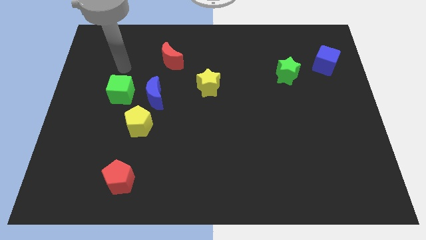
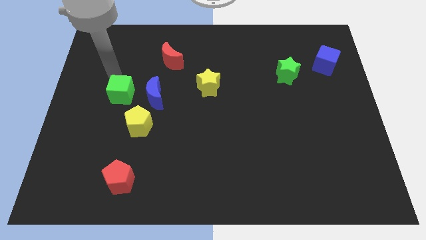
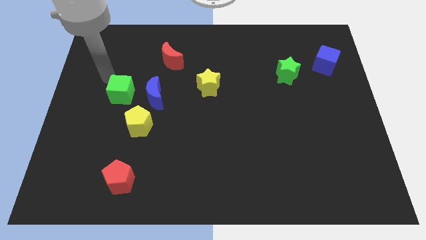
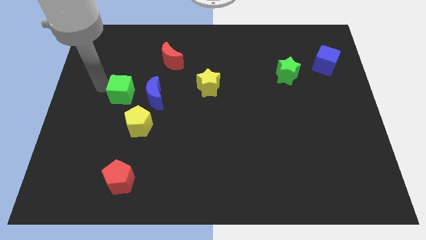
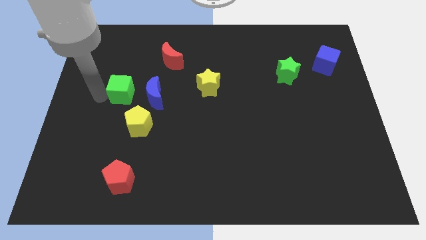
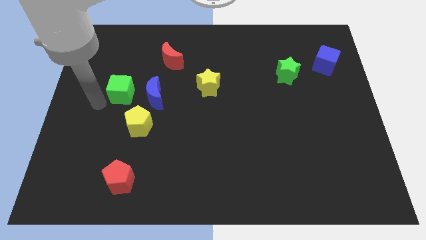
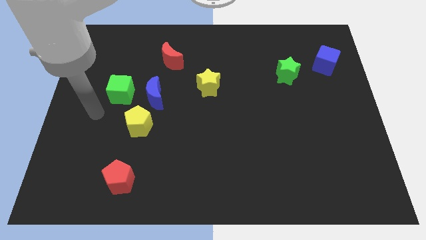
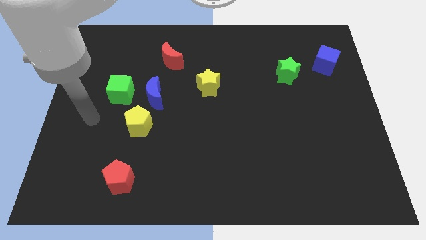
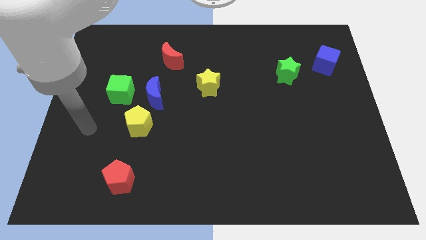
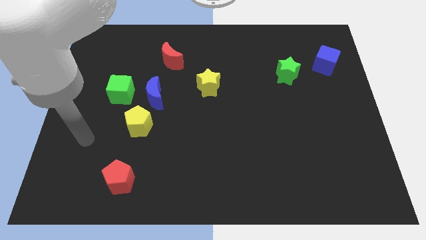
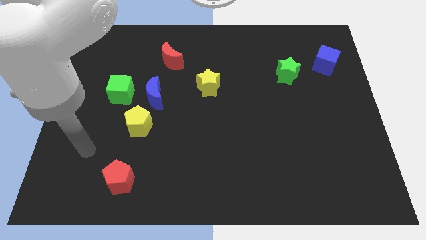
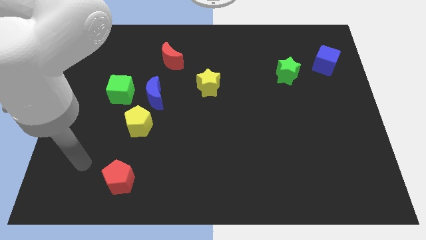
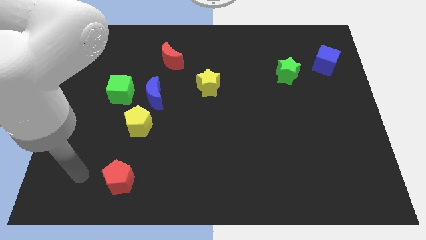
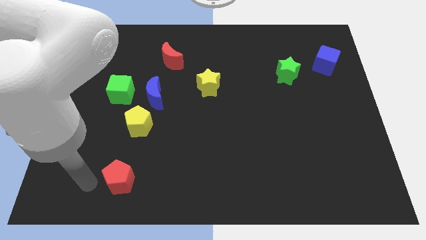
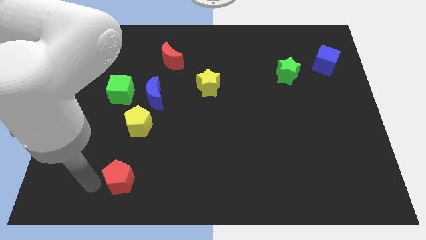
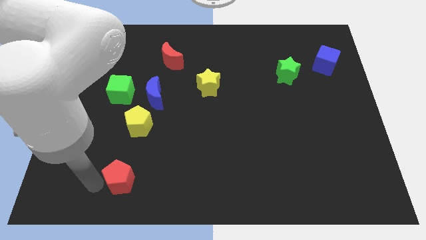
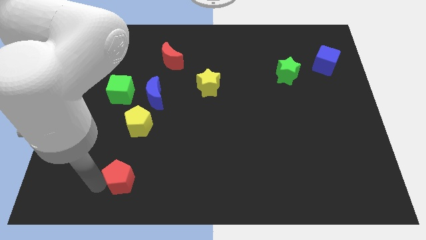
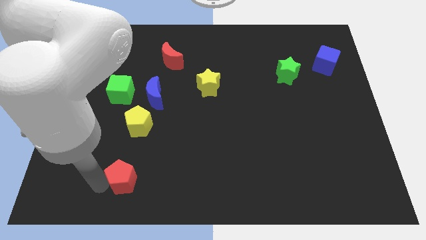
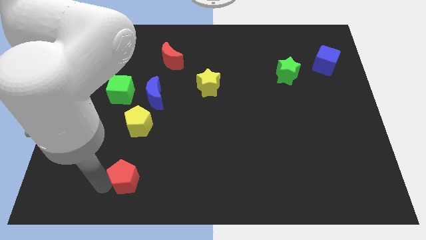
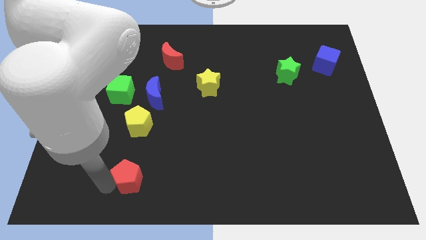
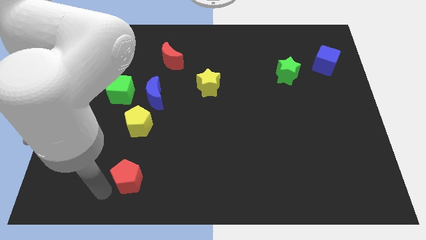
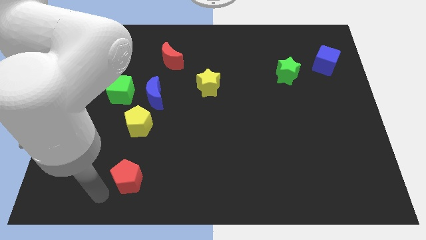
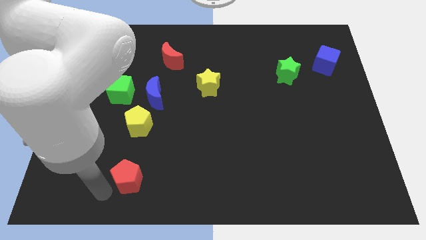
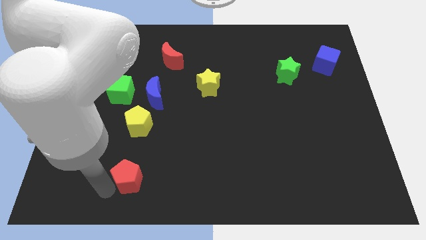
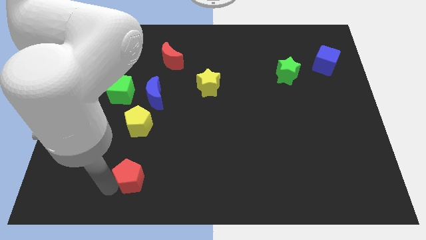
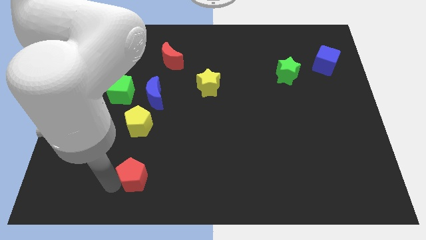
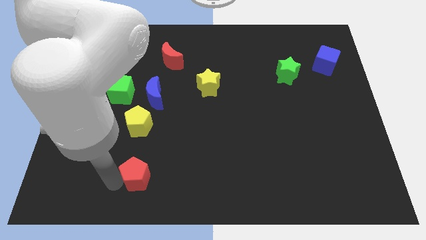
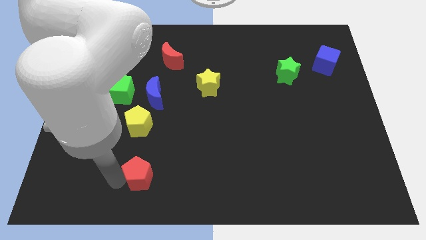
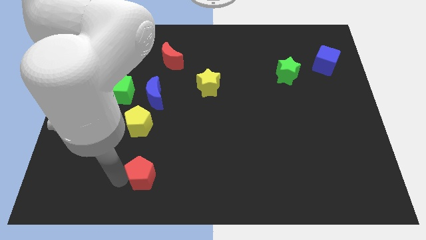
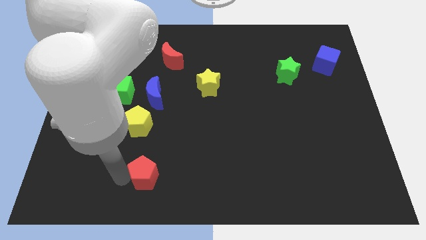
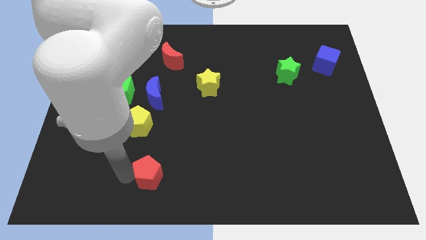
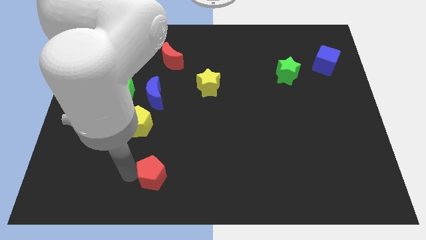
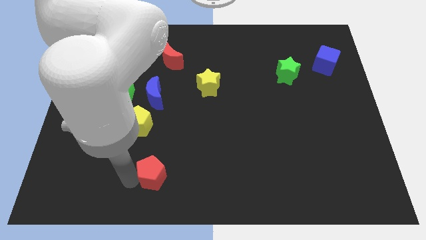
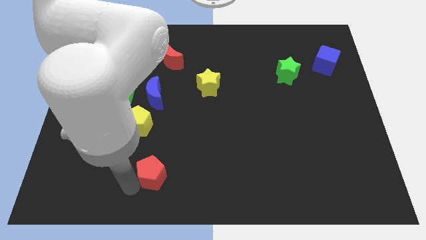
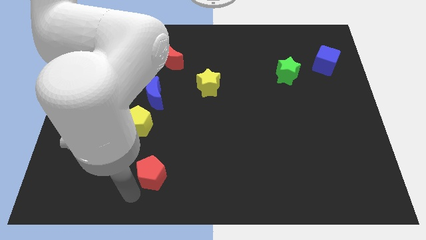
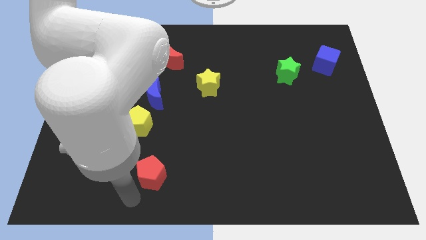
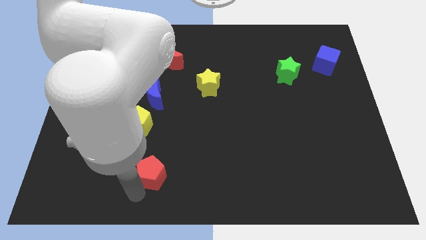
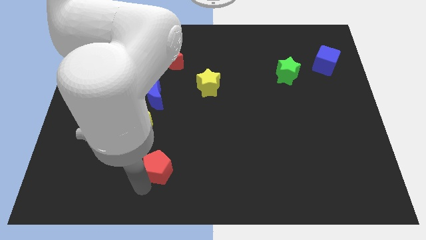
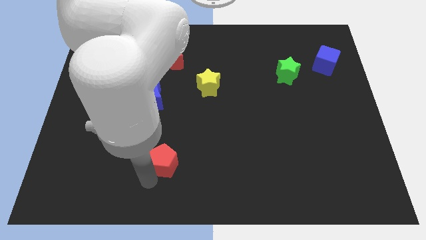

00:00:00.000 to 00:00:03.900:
move the red pentagon a little up and right

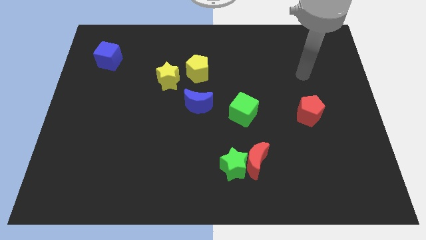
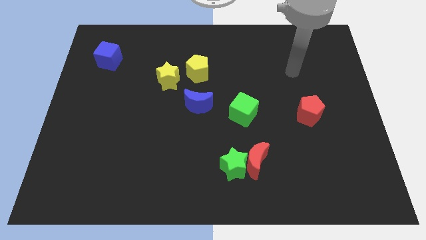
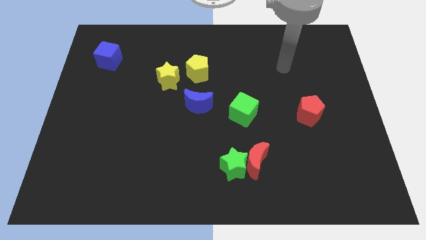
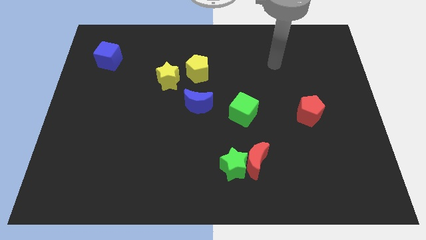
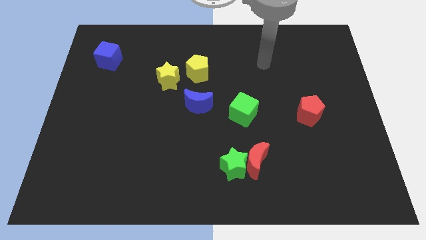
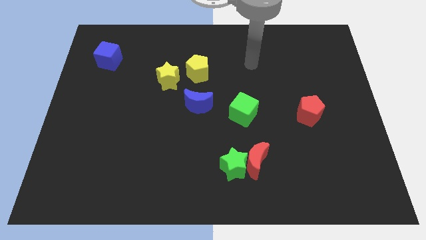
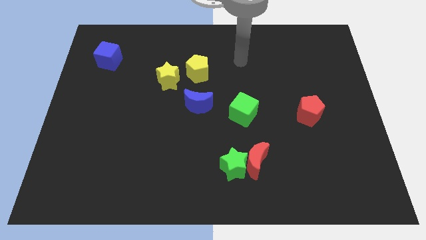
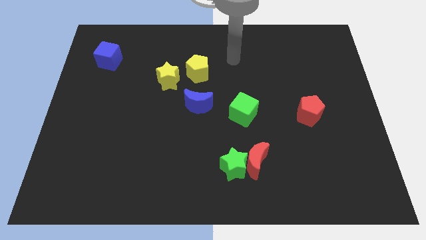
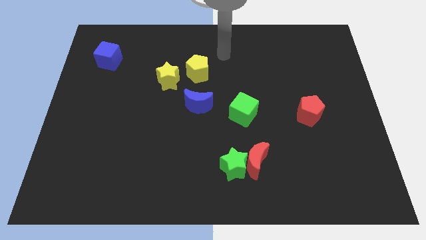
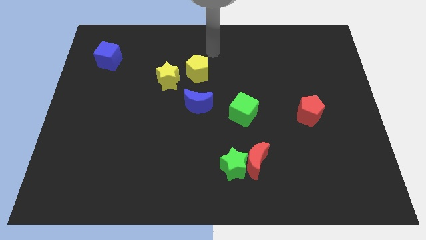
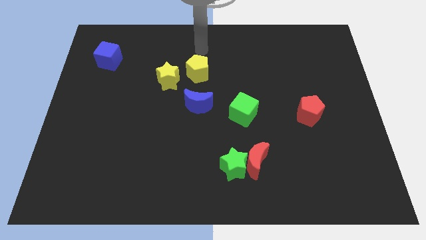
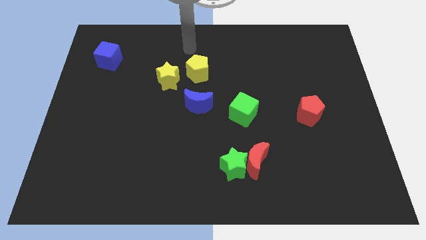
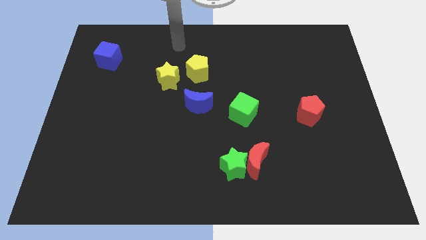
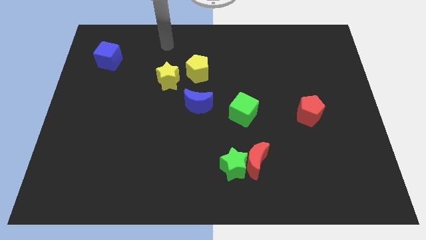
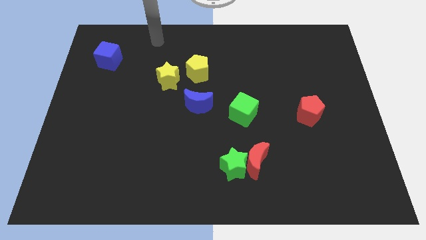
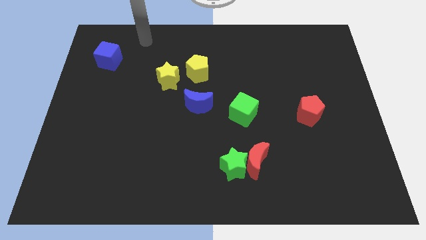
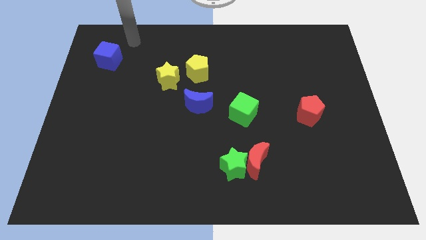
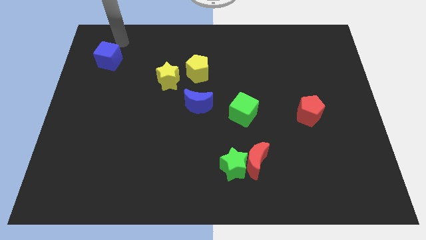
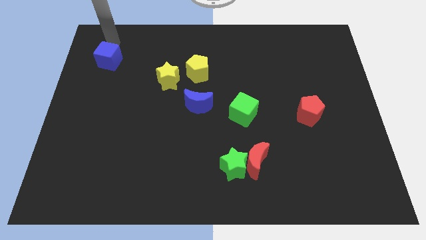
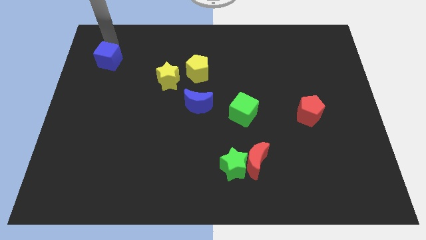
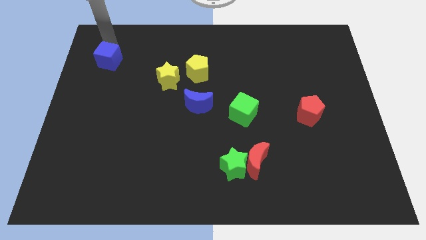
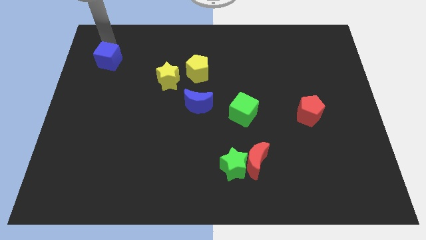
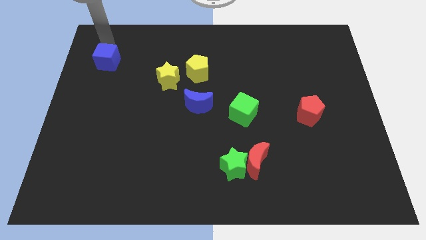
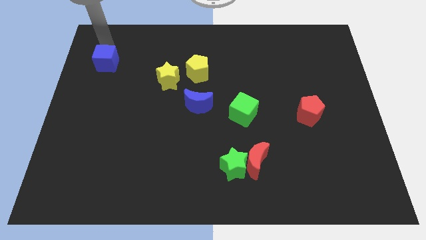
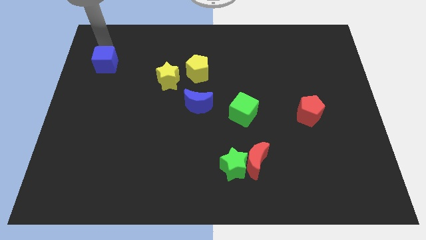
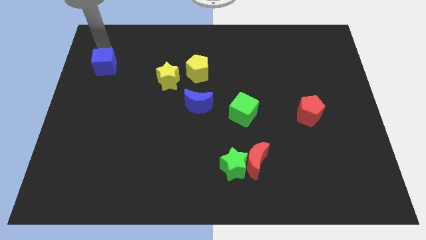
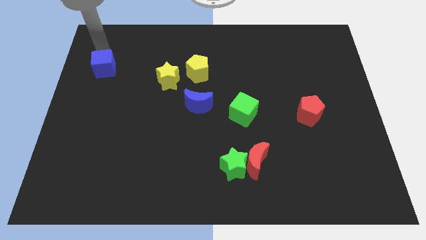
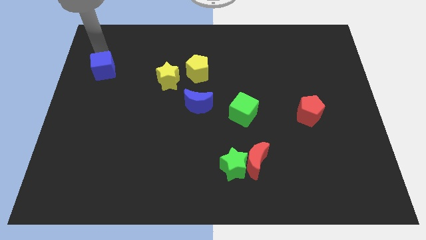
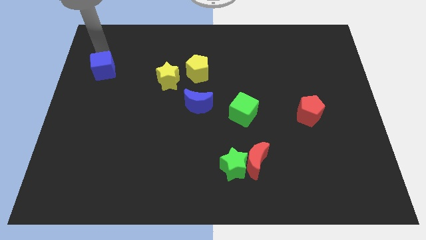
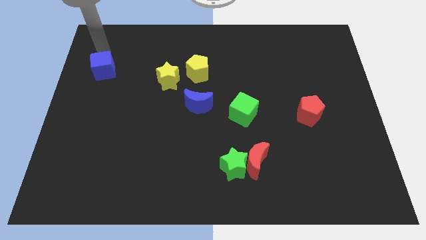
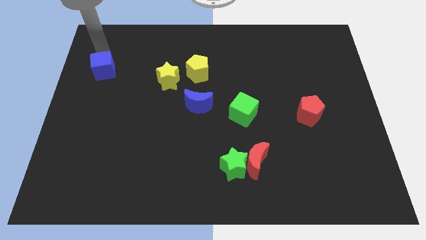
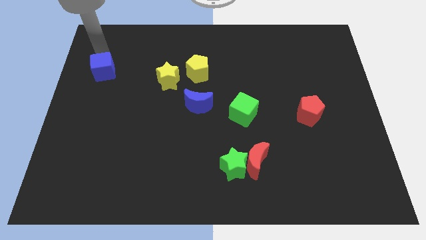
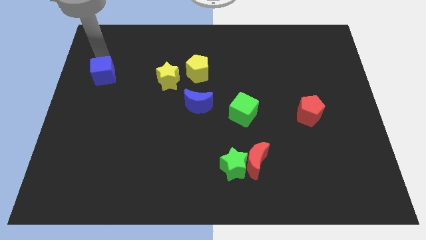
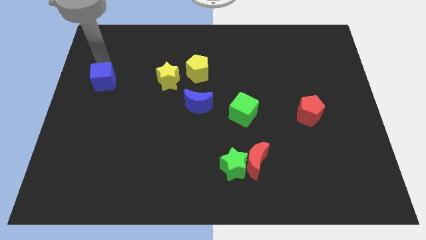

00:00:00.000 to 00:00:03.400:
push the blue cube downwards slightly

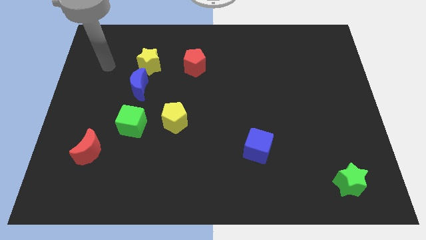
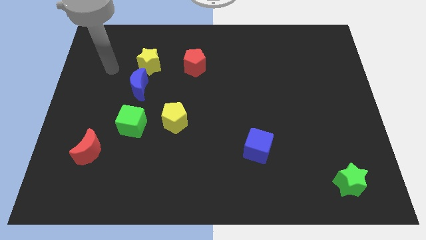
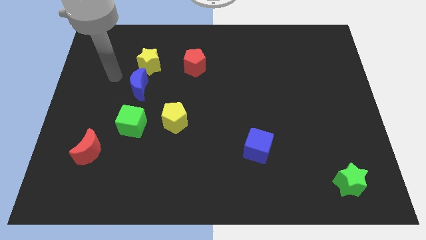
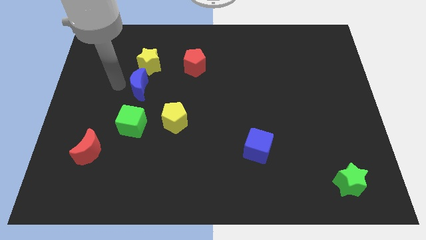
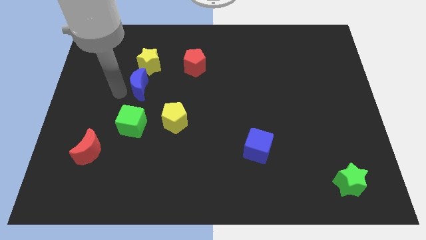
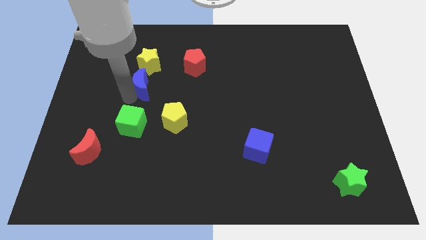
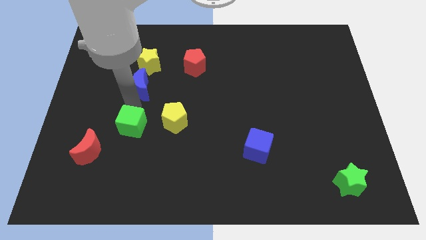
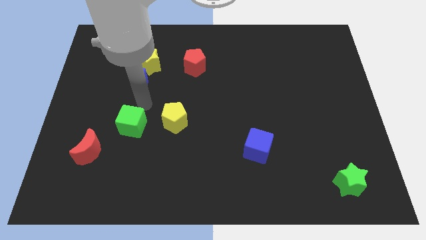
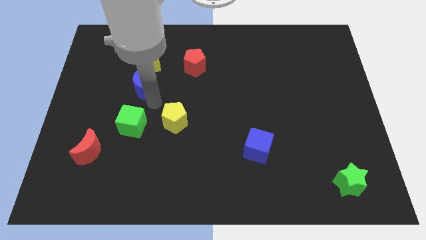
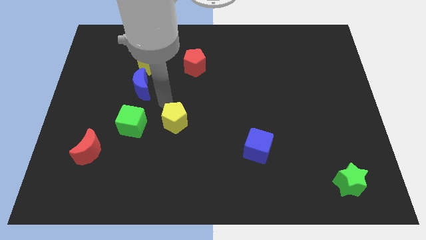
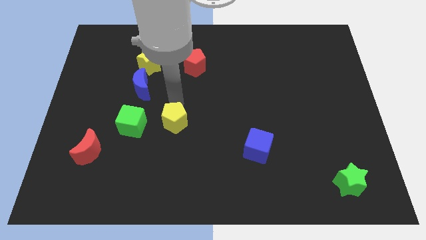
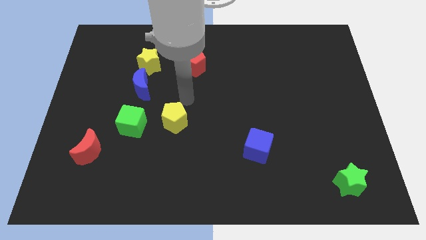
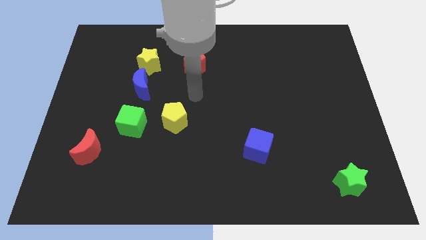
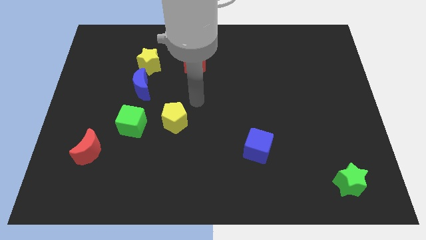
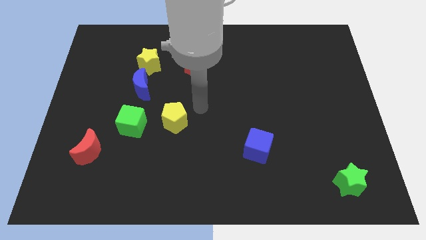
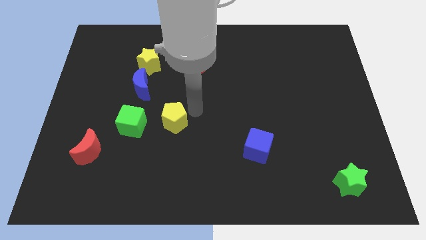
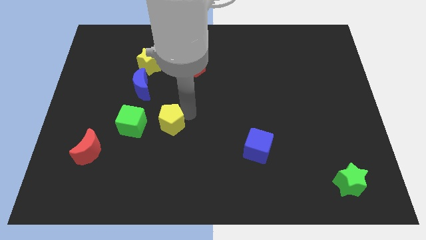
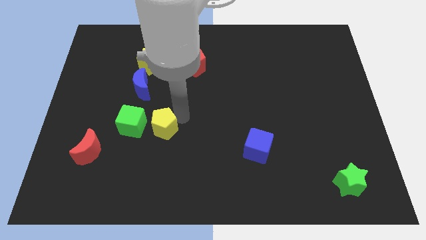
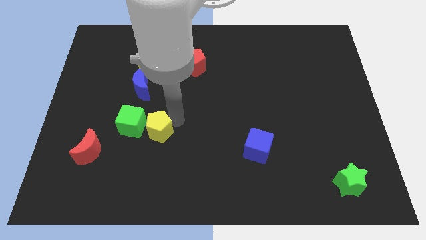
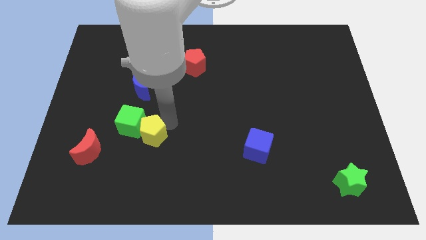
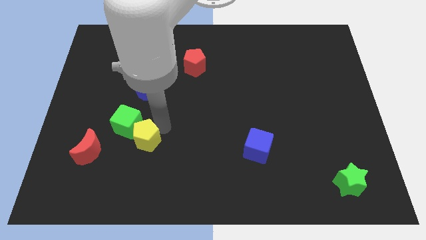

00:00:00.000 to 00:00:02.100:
slightly slide the yellow pentagon down and then to the left
